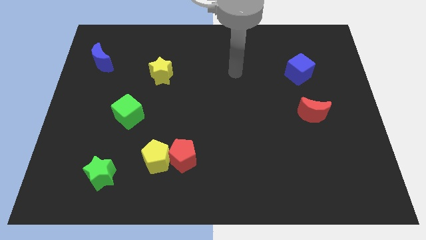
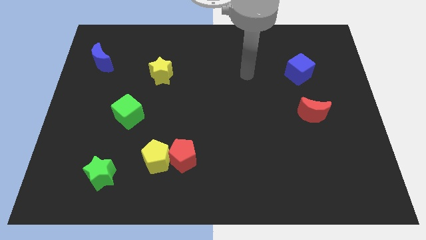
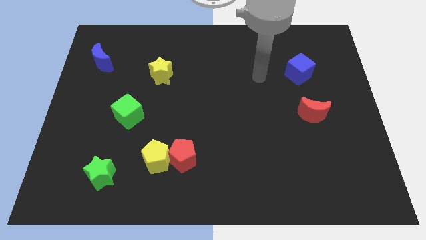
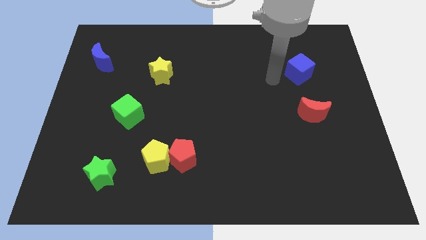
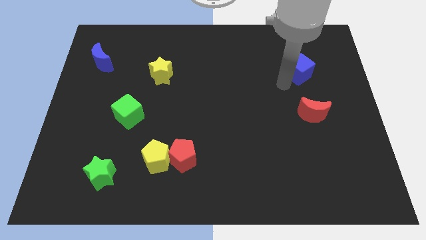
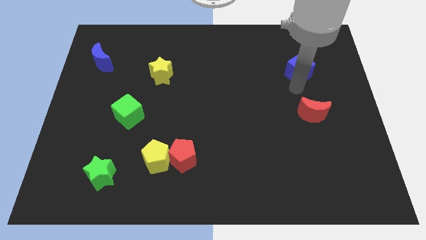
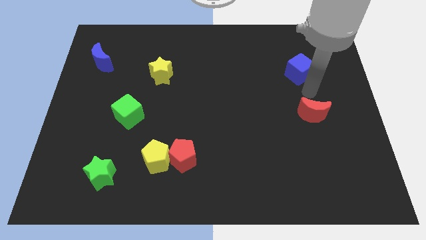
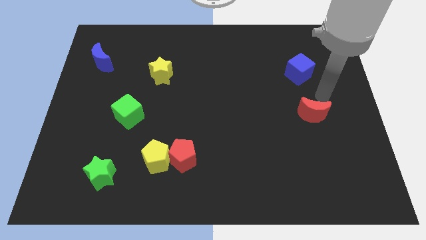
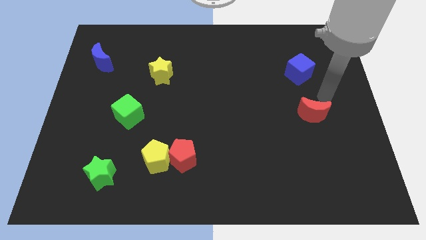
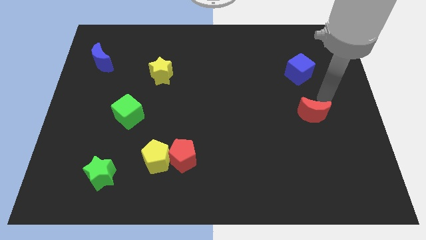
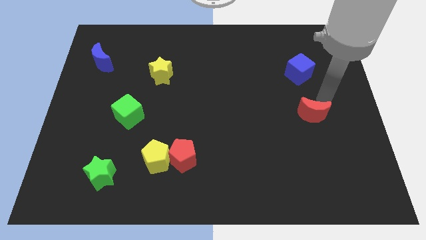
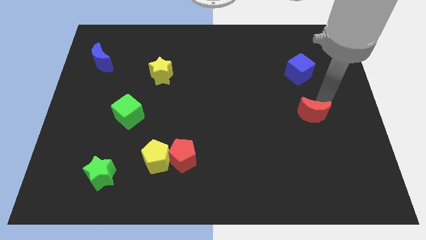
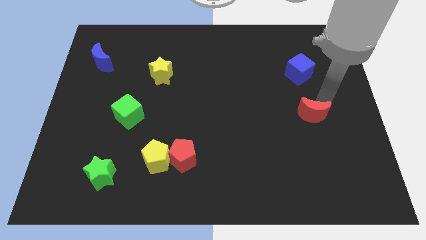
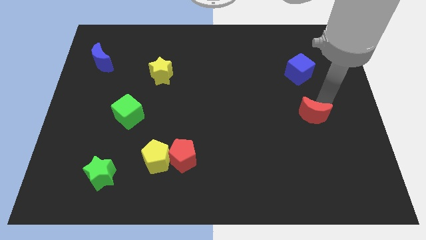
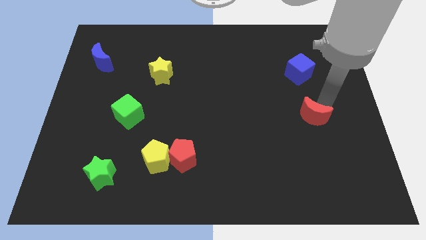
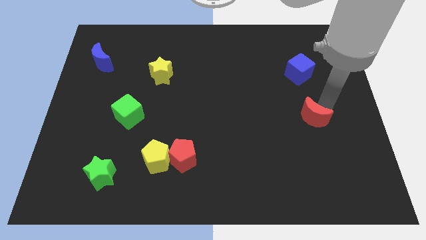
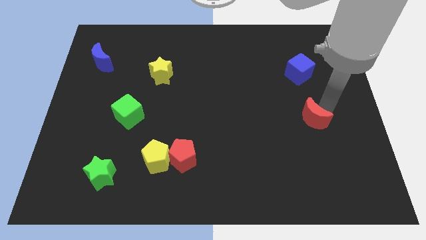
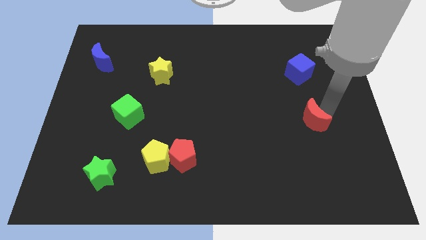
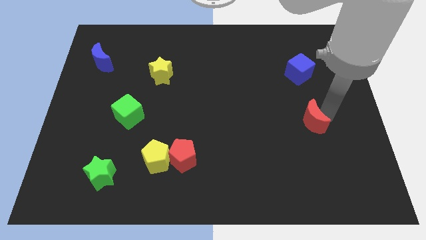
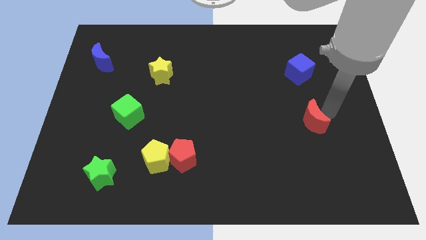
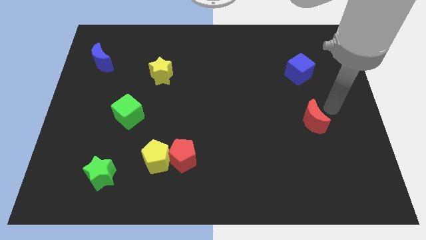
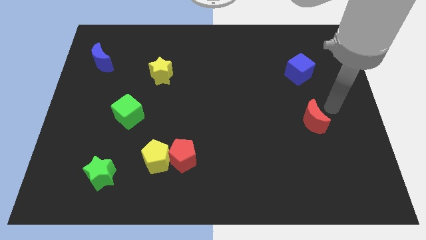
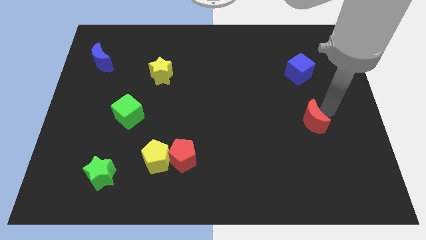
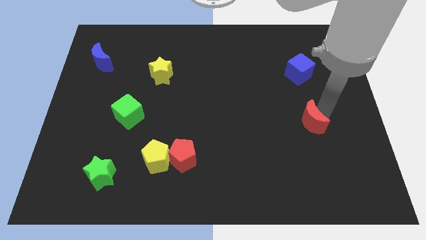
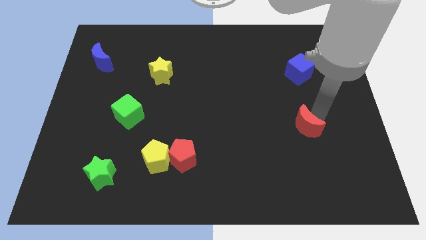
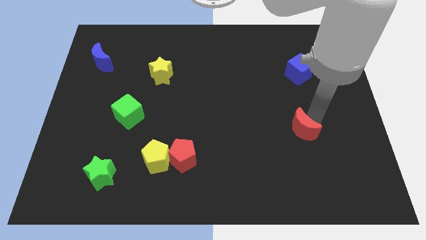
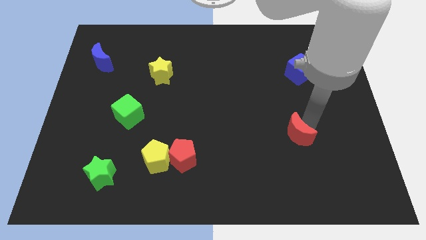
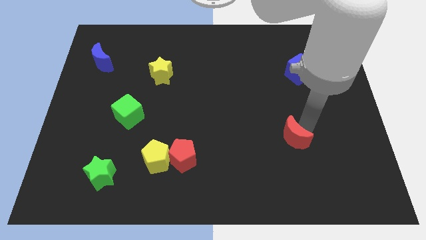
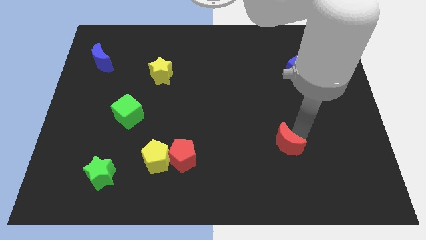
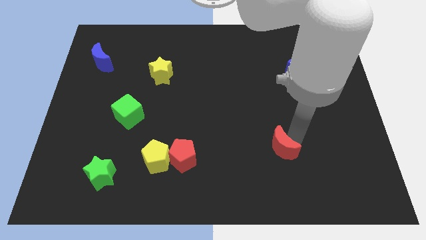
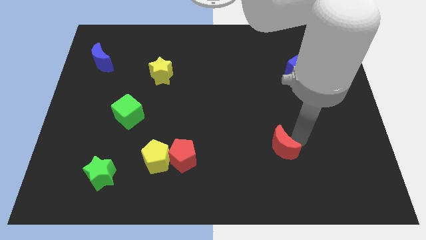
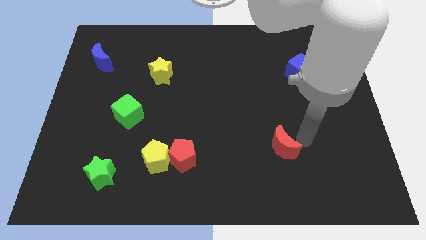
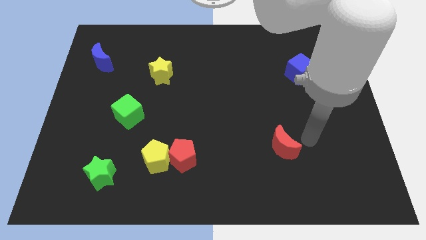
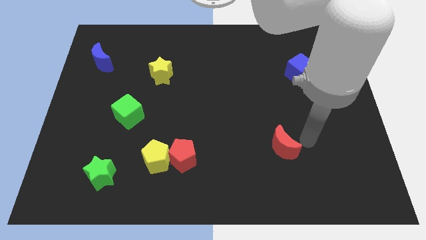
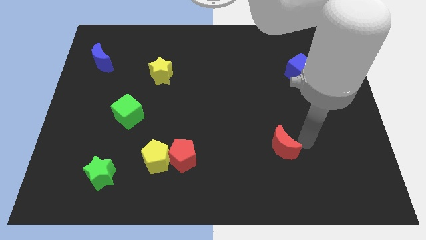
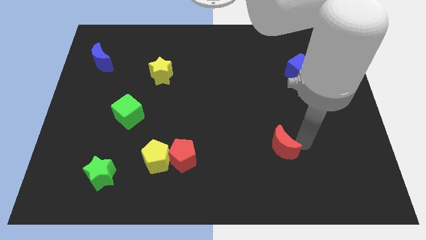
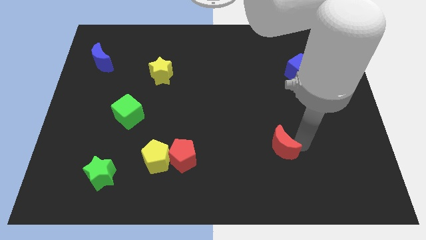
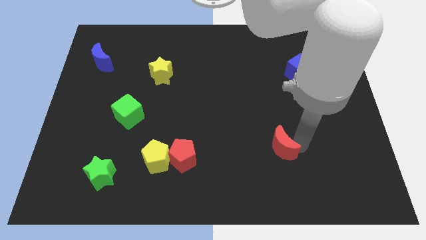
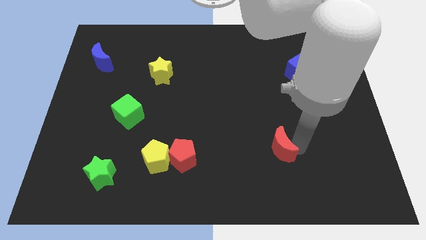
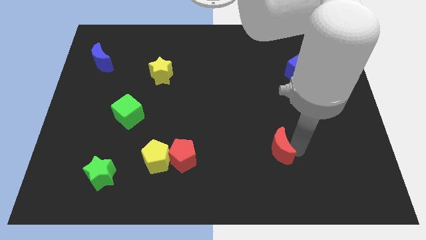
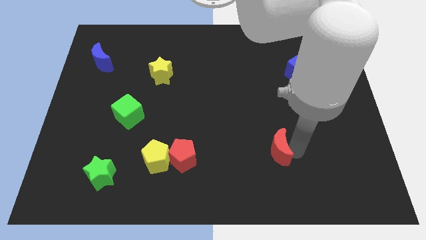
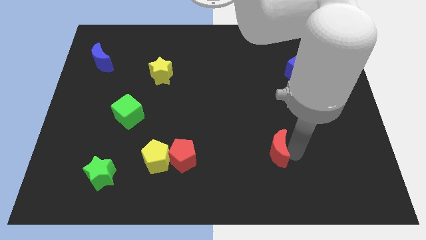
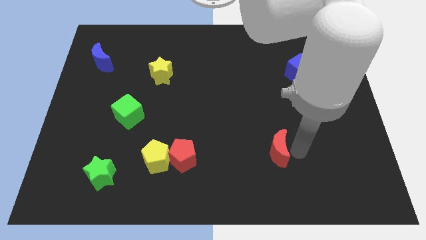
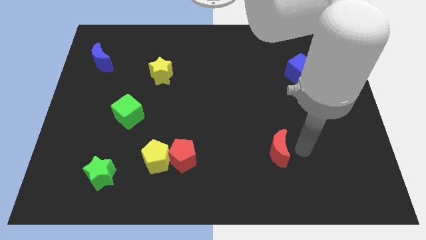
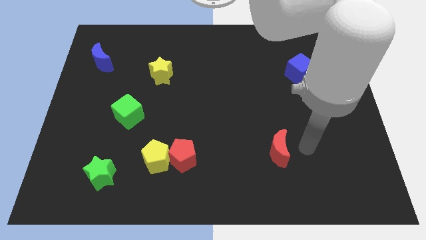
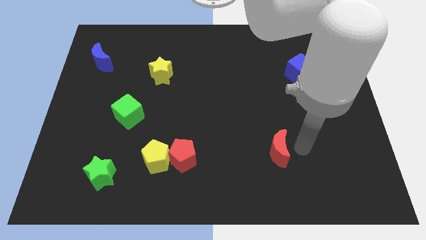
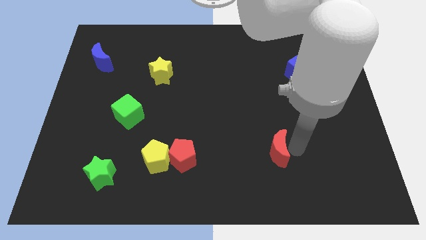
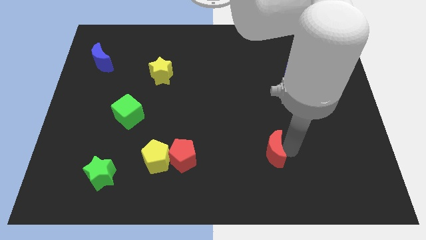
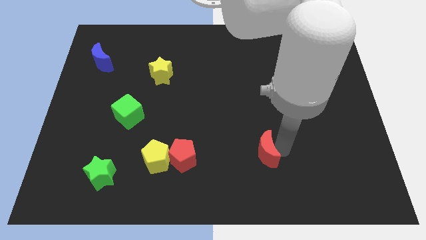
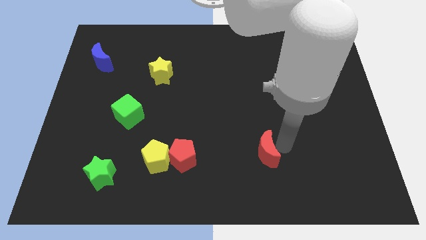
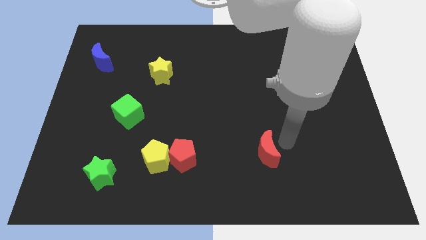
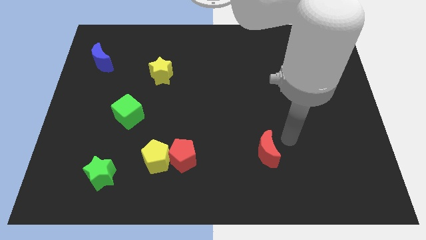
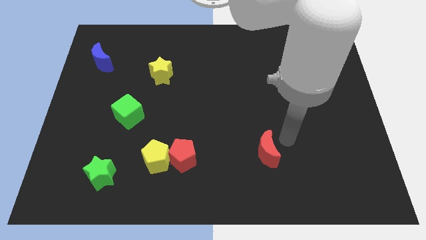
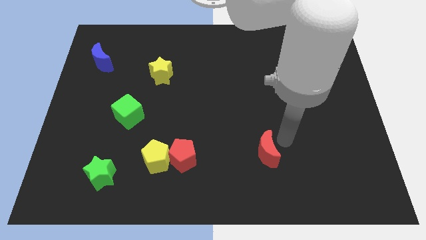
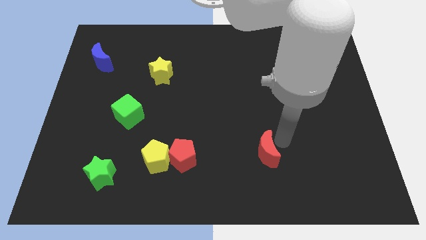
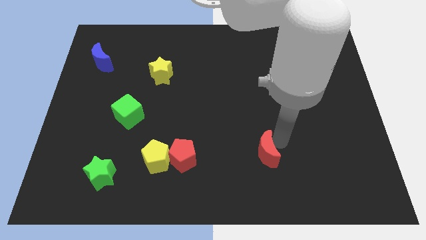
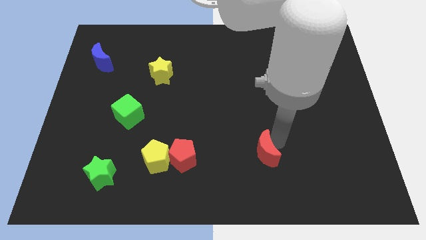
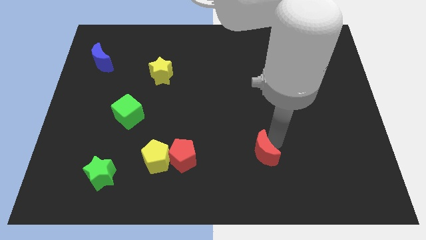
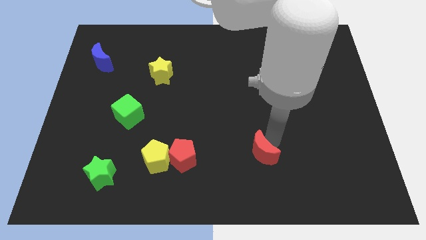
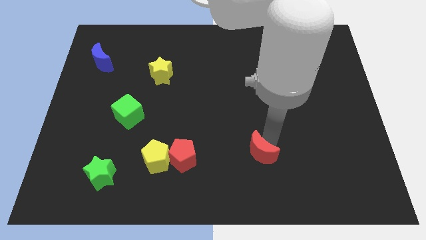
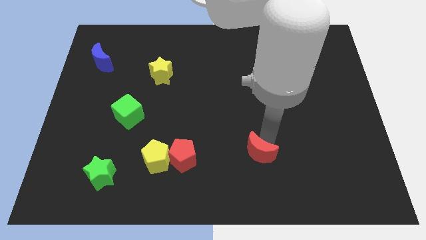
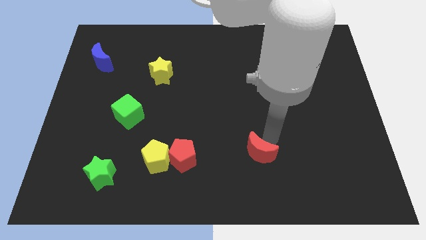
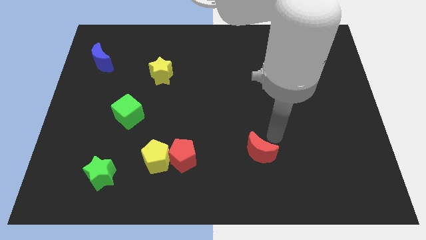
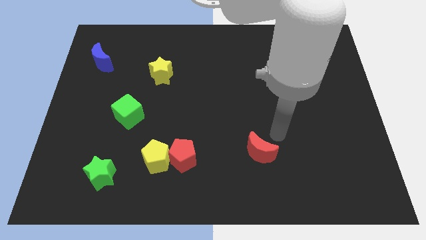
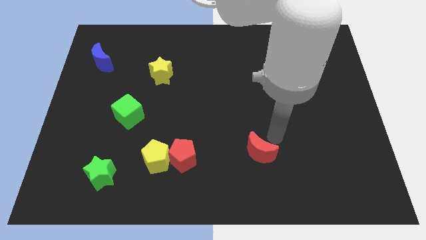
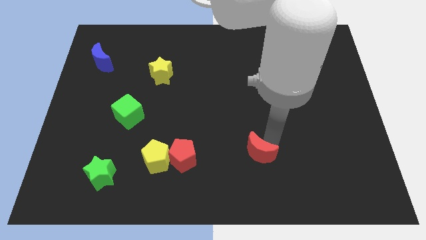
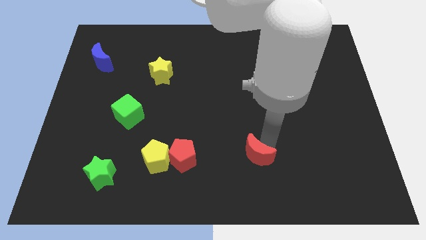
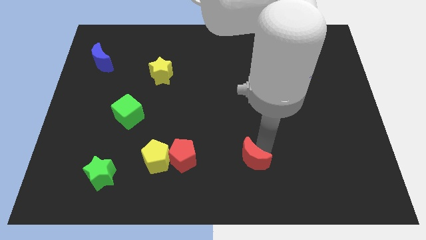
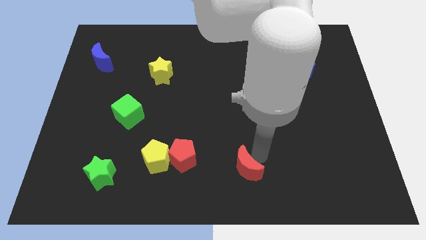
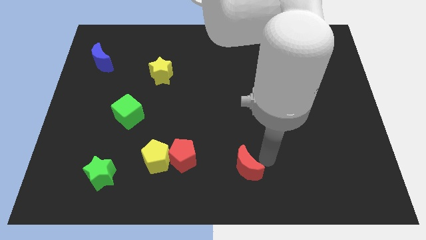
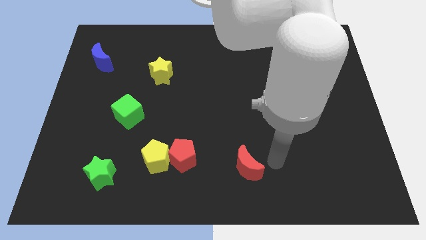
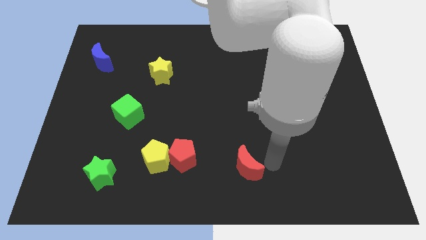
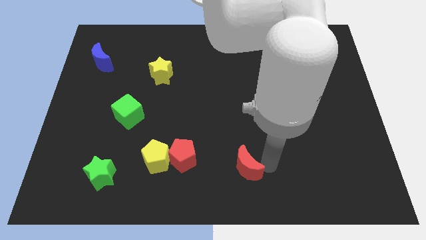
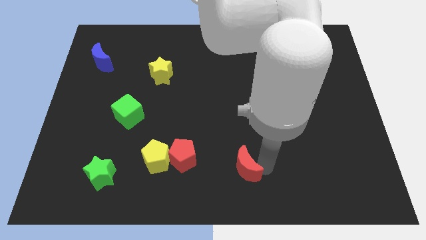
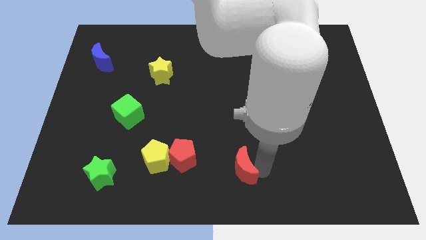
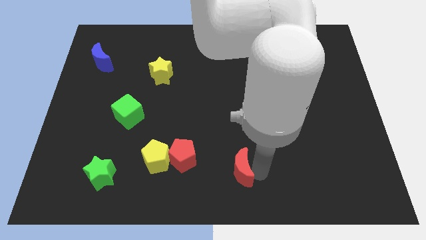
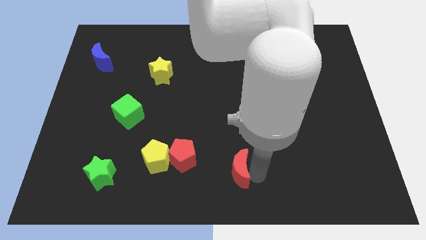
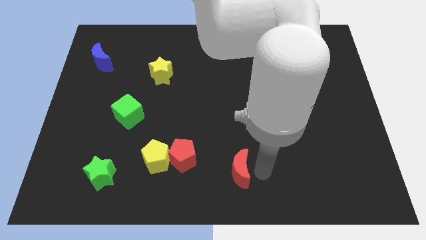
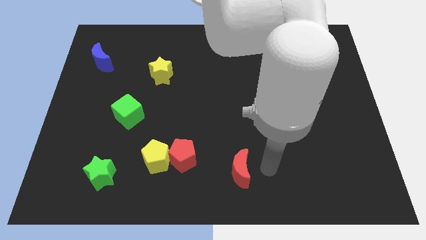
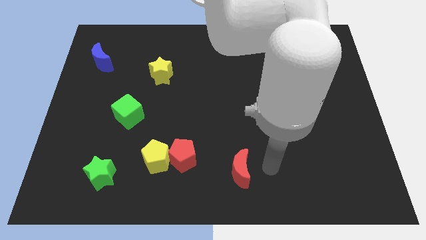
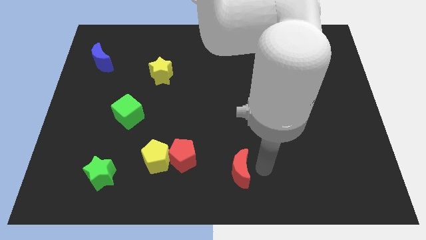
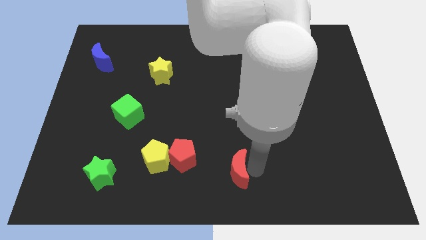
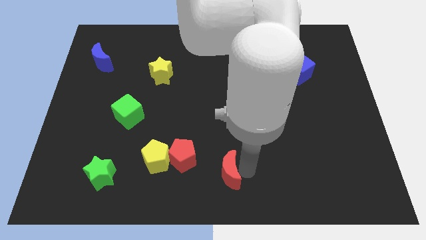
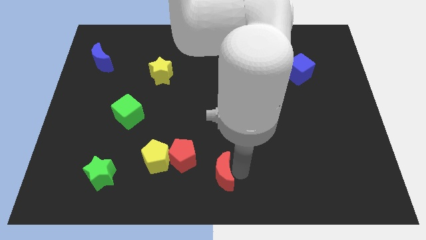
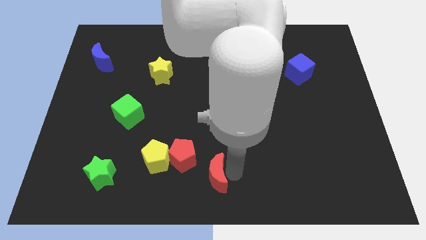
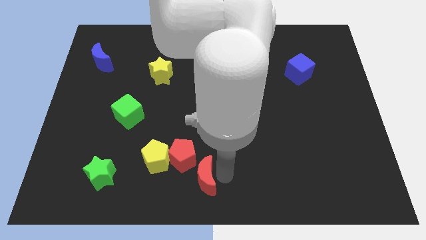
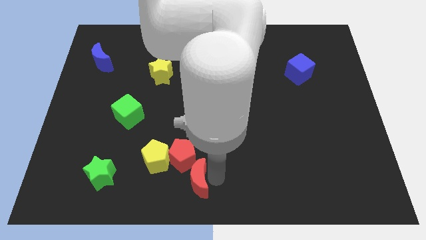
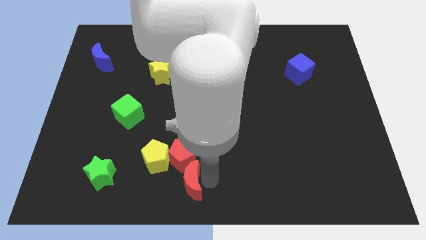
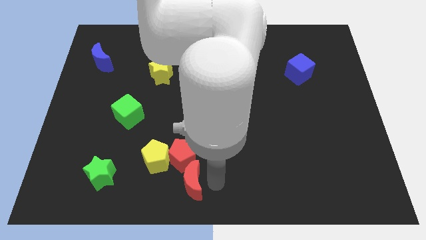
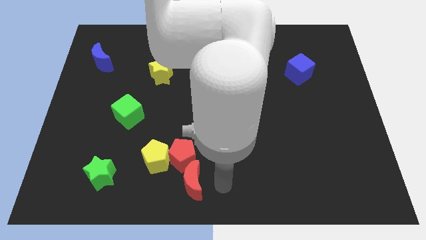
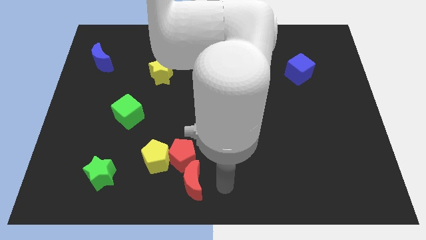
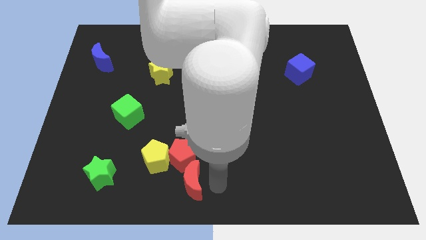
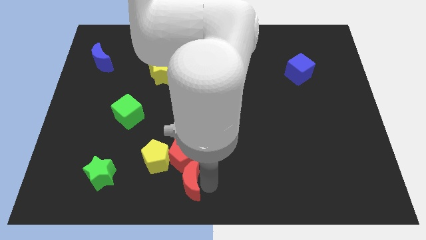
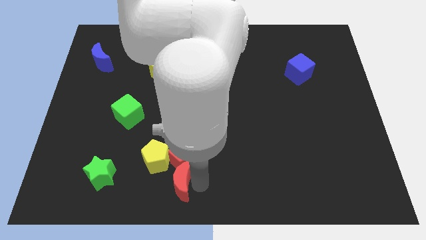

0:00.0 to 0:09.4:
move the red moon diagonally down and to the left of the red pentagon
